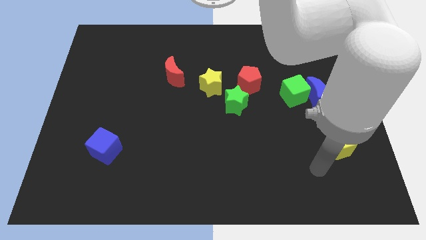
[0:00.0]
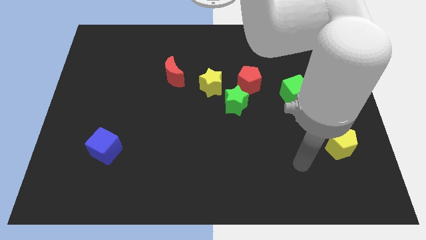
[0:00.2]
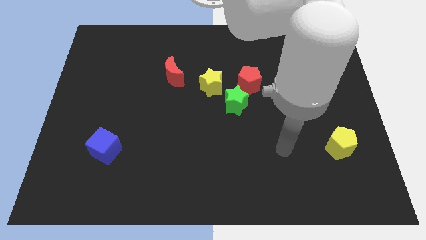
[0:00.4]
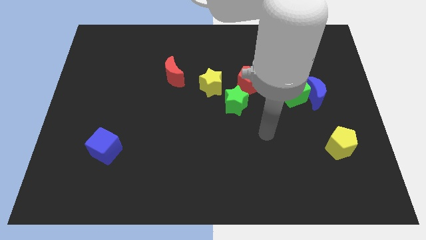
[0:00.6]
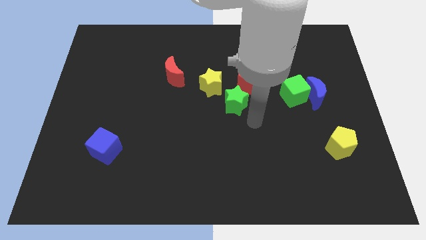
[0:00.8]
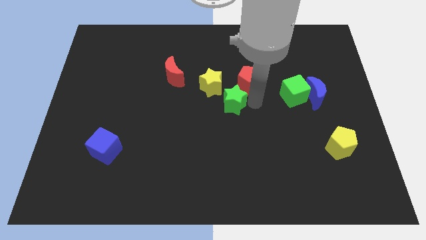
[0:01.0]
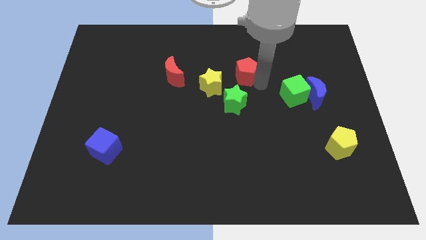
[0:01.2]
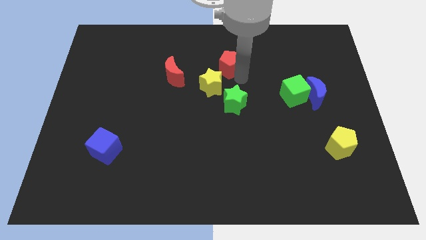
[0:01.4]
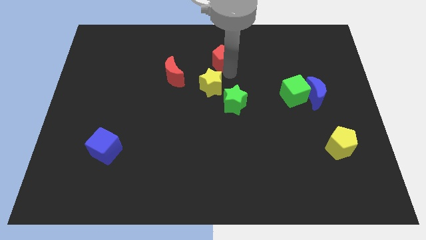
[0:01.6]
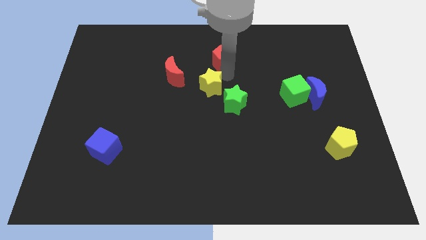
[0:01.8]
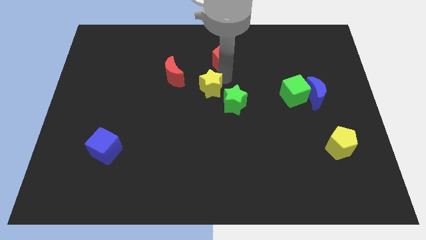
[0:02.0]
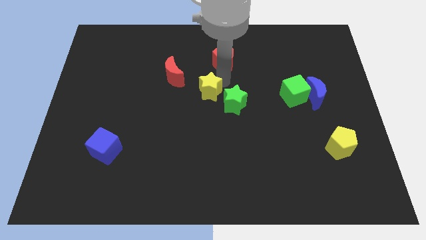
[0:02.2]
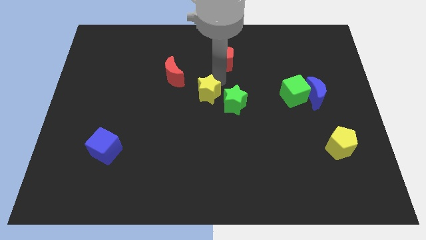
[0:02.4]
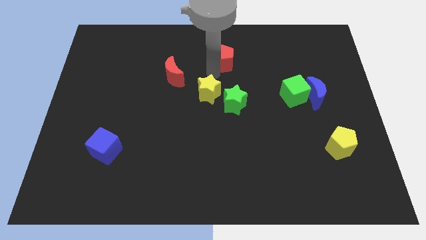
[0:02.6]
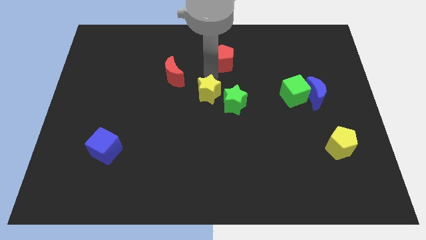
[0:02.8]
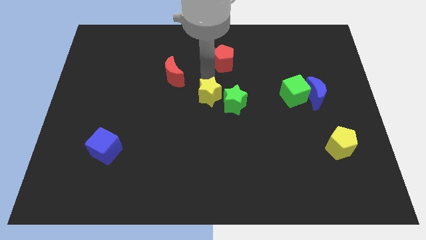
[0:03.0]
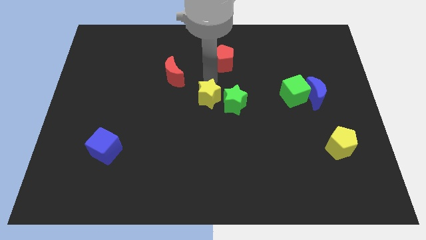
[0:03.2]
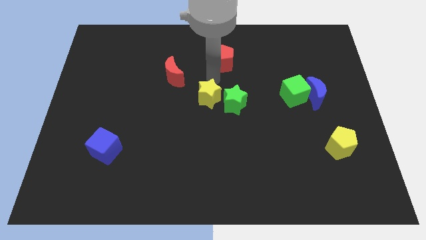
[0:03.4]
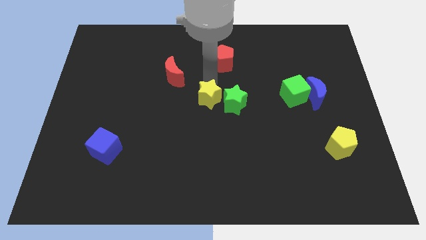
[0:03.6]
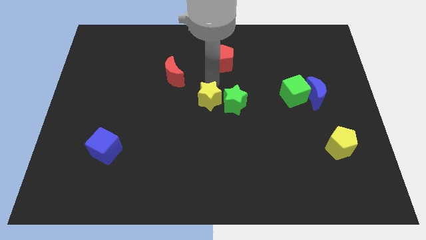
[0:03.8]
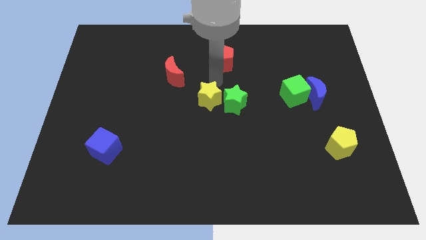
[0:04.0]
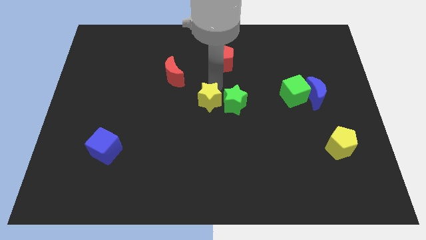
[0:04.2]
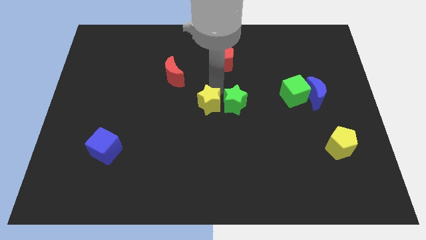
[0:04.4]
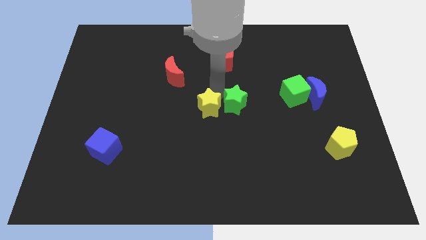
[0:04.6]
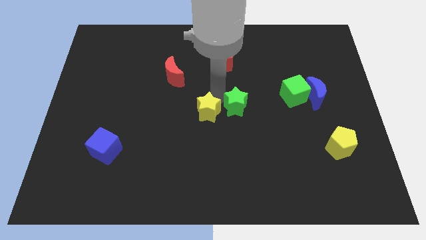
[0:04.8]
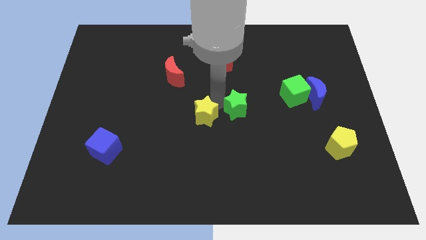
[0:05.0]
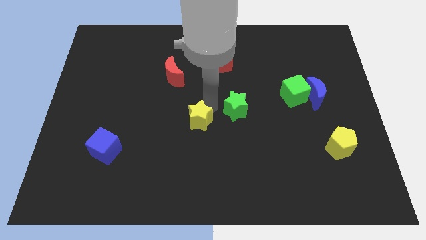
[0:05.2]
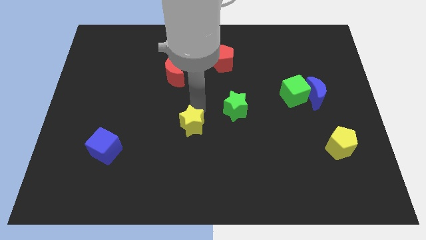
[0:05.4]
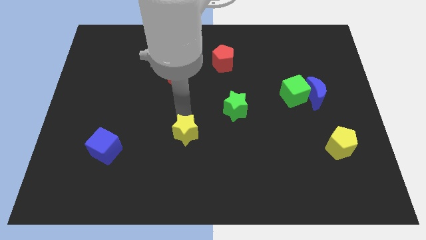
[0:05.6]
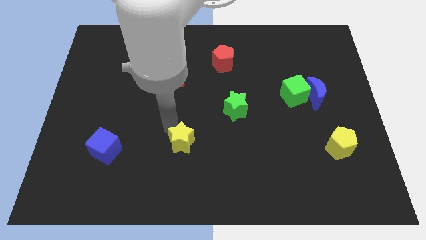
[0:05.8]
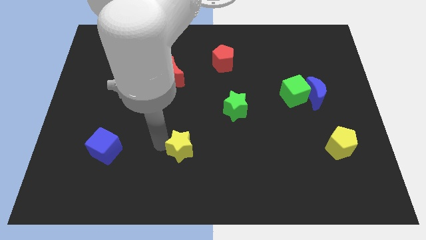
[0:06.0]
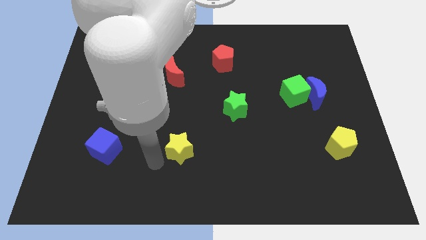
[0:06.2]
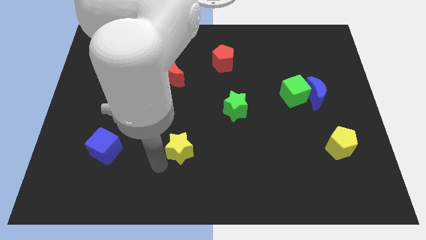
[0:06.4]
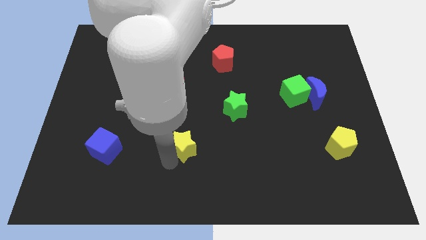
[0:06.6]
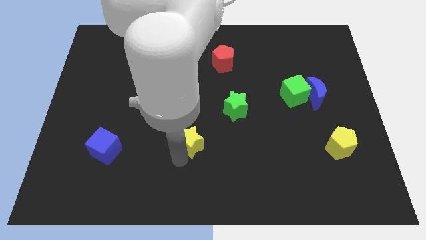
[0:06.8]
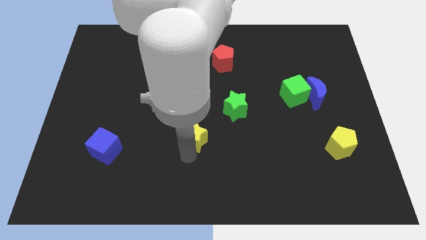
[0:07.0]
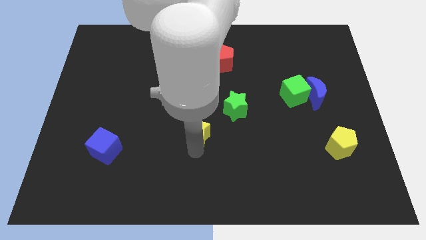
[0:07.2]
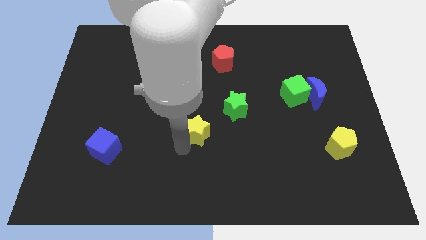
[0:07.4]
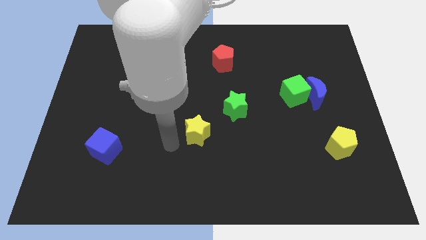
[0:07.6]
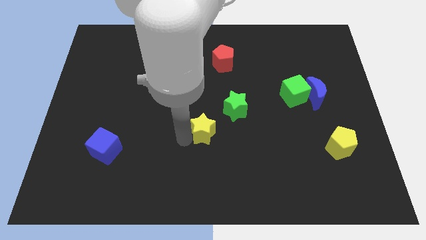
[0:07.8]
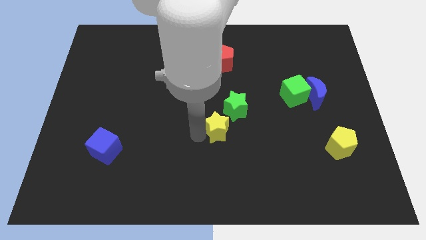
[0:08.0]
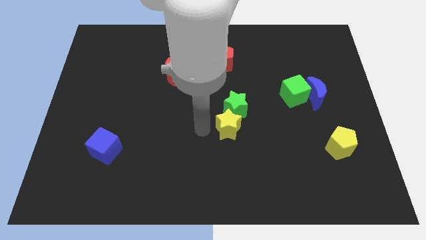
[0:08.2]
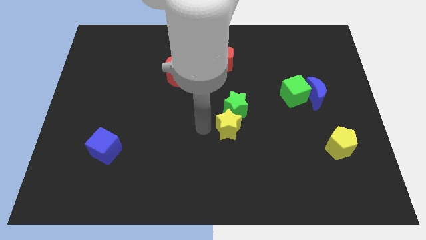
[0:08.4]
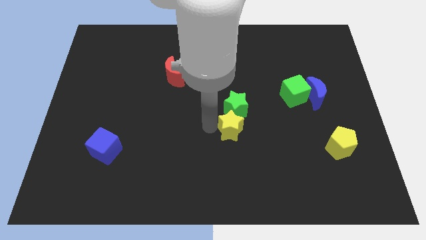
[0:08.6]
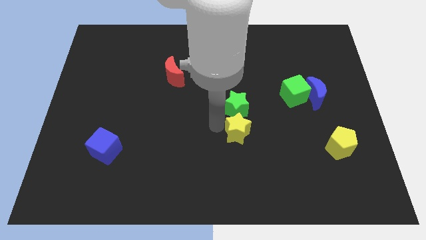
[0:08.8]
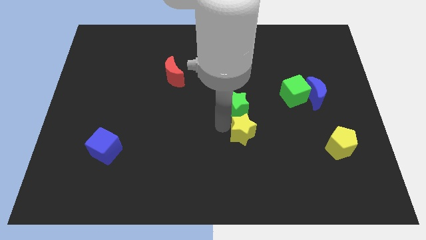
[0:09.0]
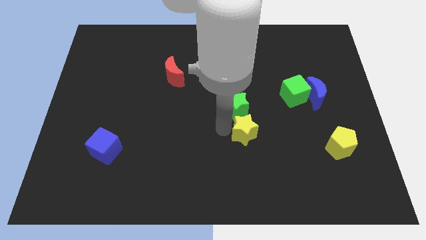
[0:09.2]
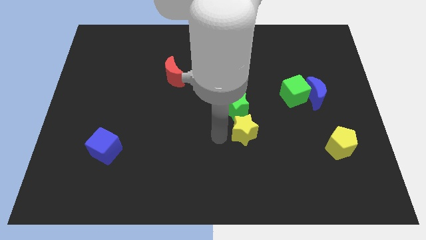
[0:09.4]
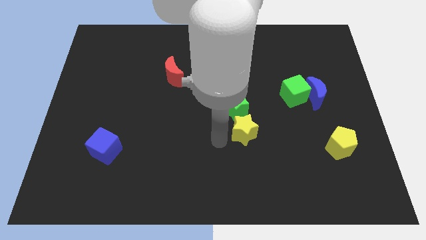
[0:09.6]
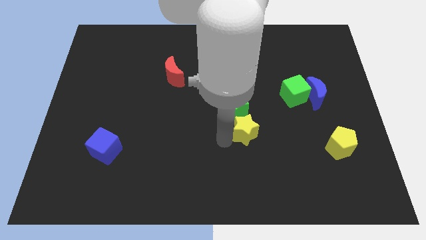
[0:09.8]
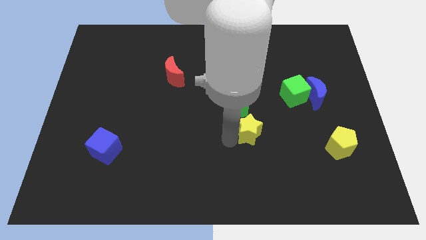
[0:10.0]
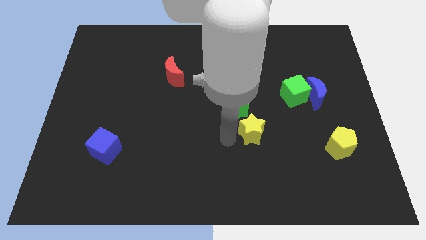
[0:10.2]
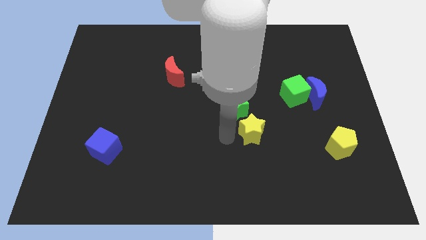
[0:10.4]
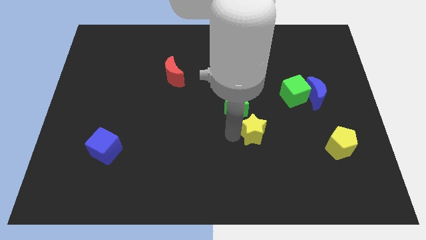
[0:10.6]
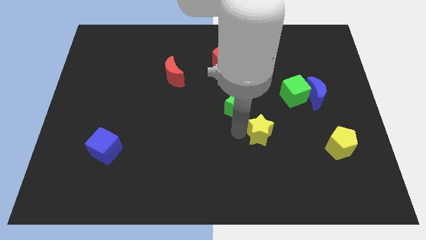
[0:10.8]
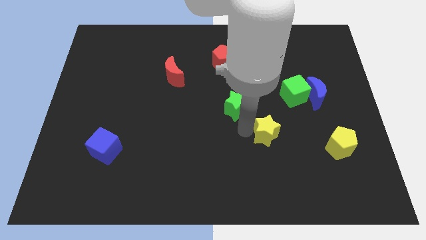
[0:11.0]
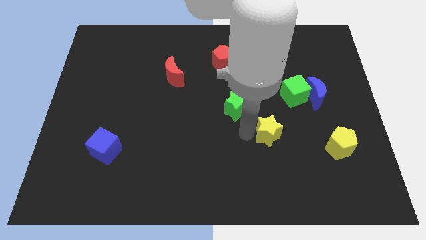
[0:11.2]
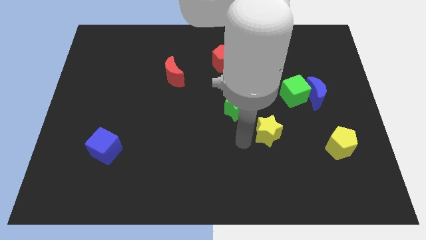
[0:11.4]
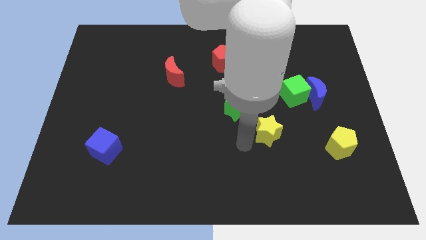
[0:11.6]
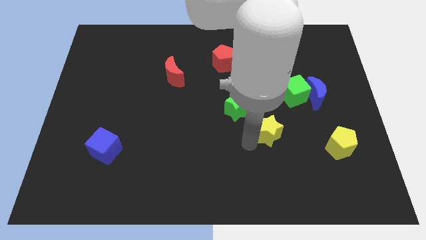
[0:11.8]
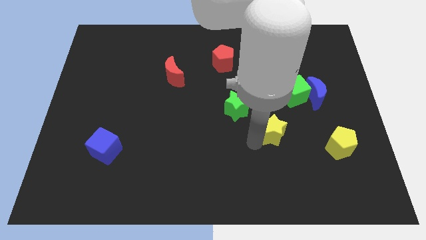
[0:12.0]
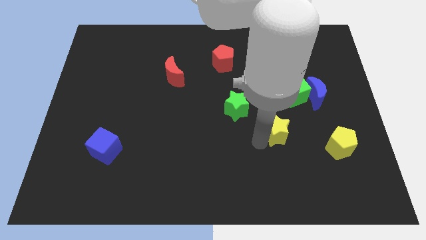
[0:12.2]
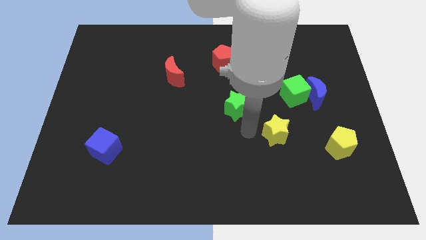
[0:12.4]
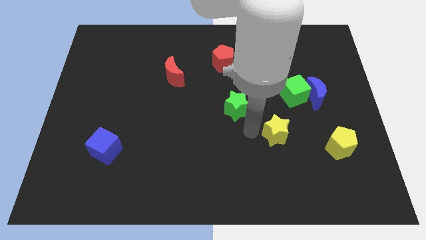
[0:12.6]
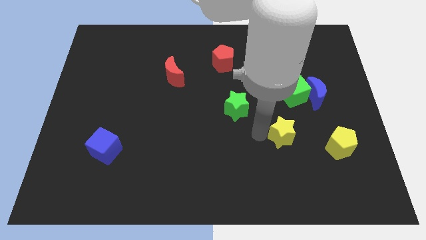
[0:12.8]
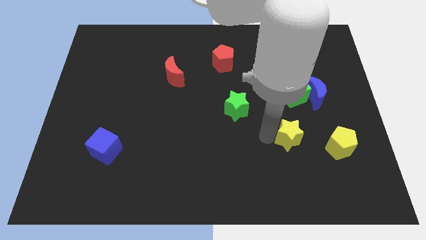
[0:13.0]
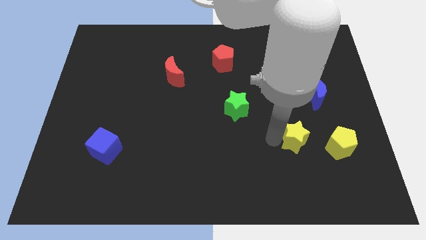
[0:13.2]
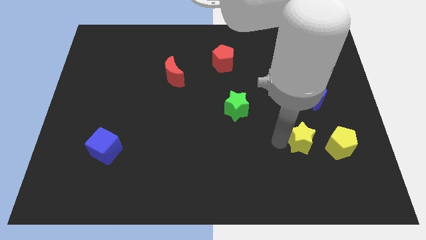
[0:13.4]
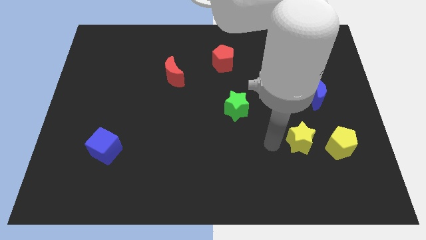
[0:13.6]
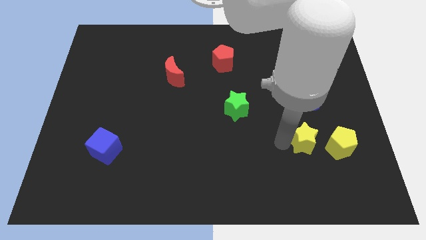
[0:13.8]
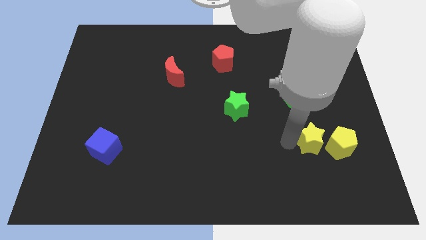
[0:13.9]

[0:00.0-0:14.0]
move the yellow star to the yellow pentagon

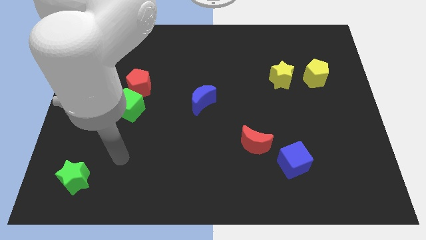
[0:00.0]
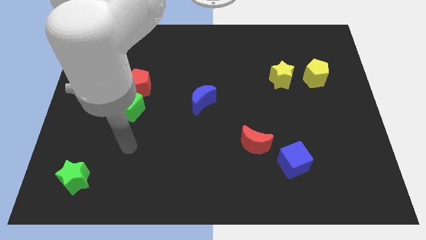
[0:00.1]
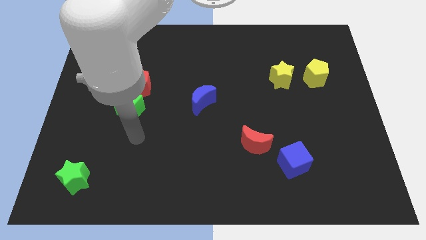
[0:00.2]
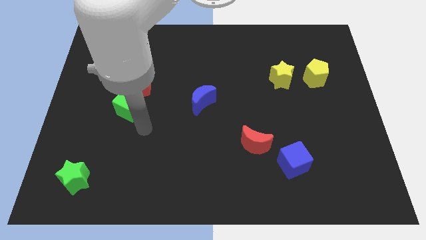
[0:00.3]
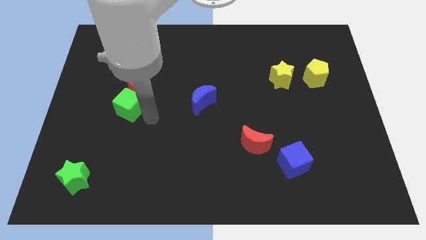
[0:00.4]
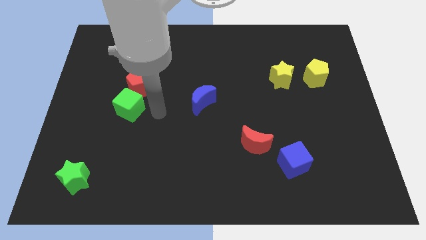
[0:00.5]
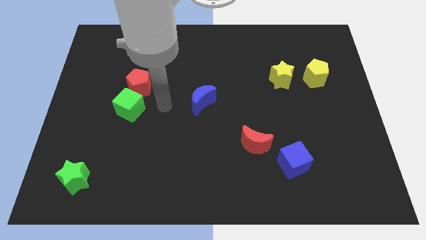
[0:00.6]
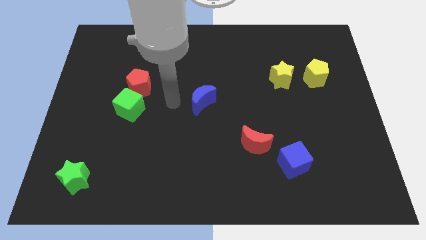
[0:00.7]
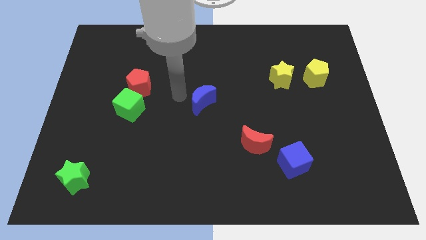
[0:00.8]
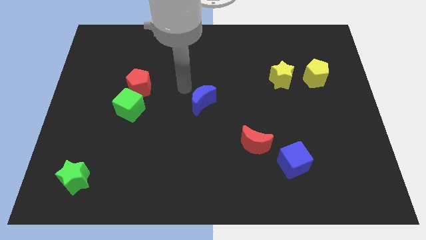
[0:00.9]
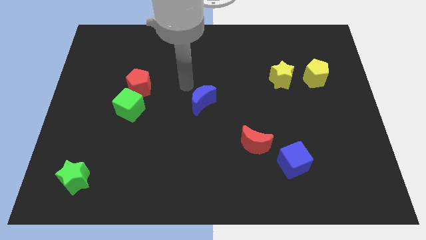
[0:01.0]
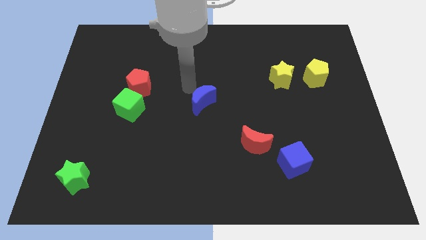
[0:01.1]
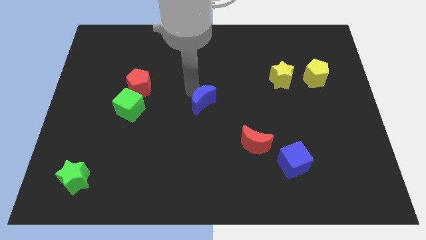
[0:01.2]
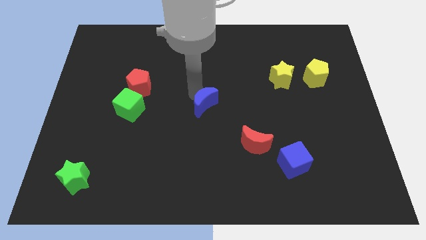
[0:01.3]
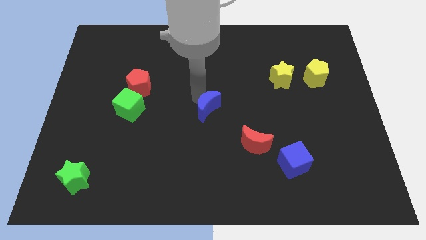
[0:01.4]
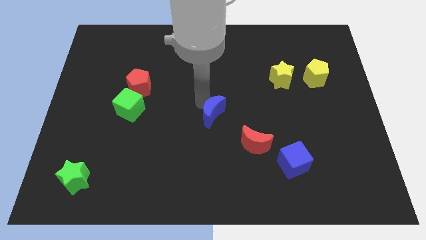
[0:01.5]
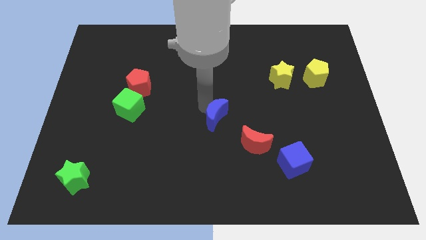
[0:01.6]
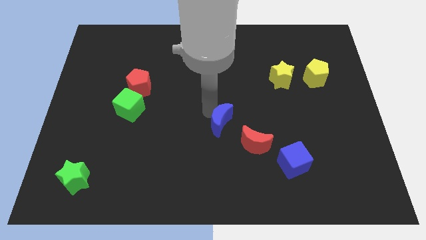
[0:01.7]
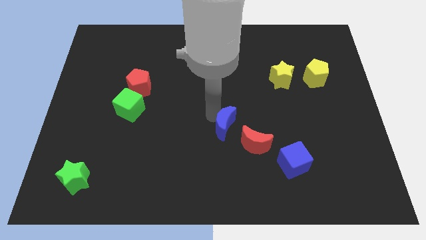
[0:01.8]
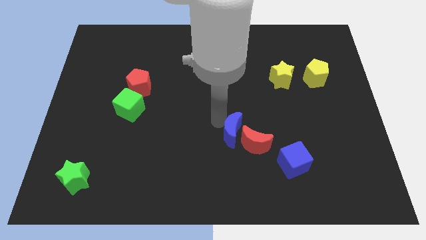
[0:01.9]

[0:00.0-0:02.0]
move the blue moon next to the red moon
